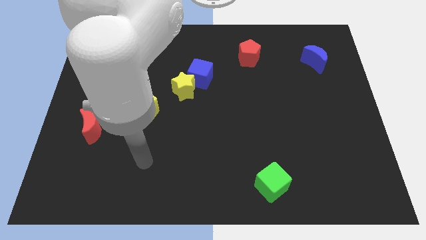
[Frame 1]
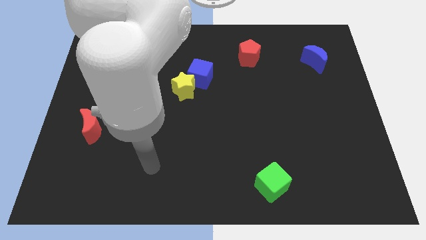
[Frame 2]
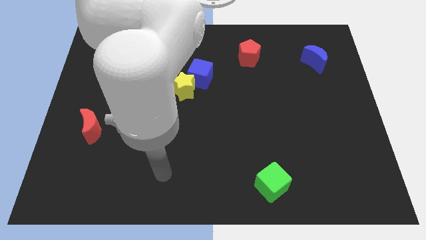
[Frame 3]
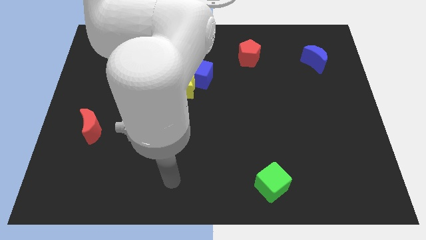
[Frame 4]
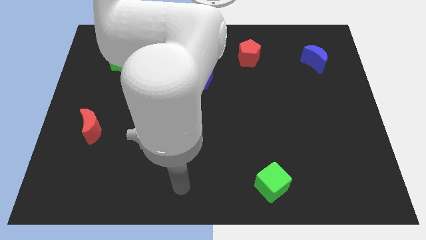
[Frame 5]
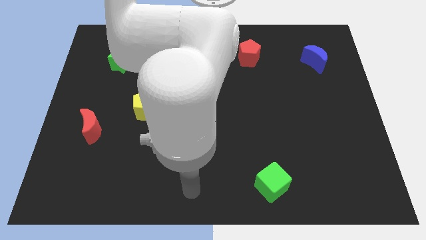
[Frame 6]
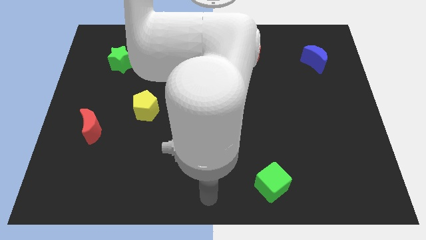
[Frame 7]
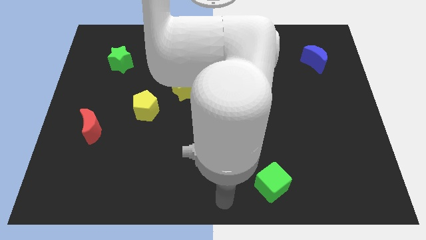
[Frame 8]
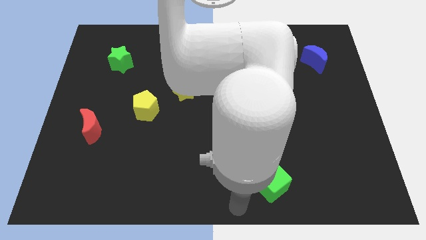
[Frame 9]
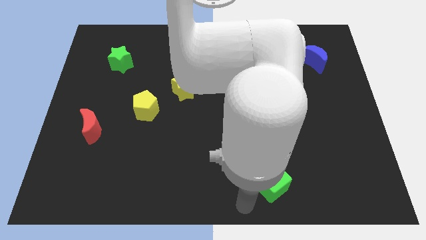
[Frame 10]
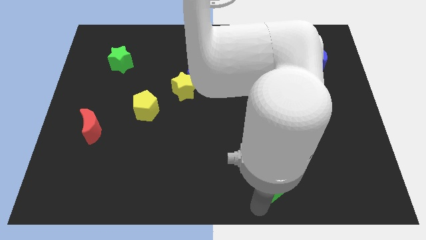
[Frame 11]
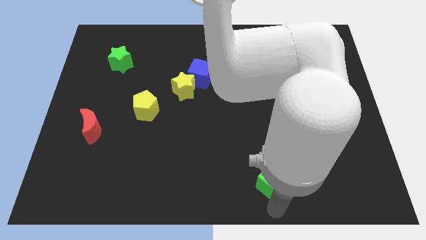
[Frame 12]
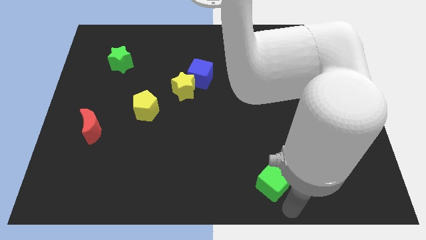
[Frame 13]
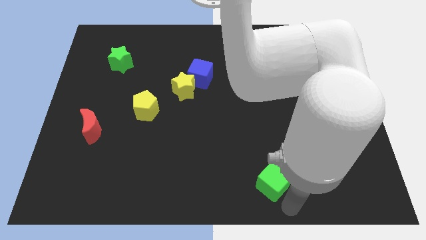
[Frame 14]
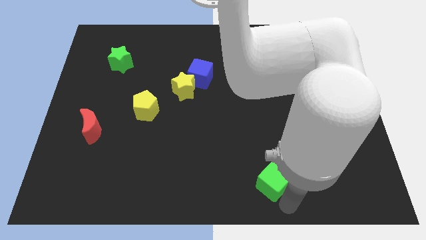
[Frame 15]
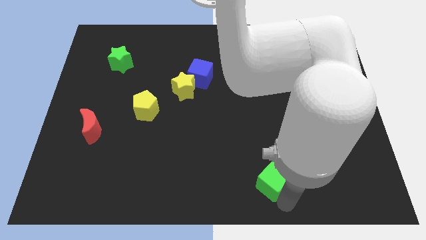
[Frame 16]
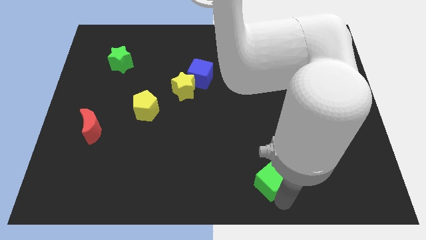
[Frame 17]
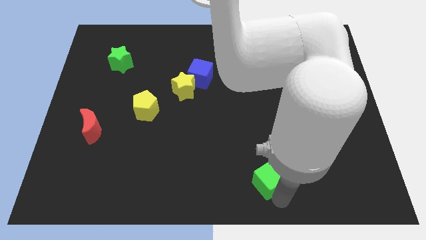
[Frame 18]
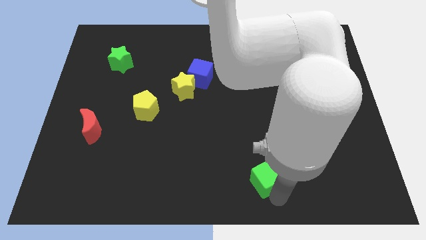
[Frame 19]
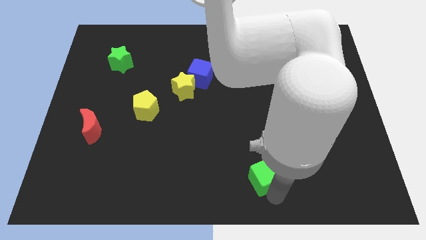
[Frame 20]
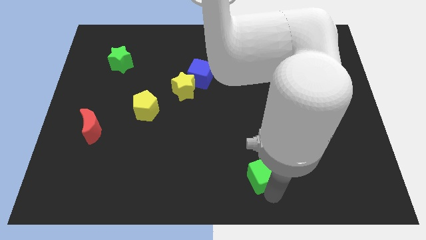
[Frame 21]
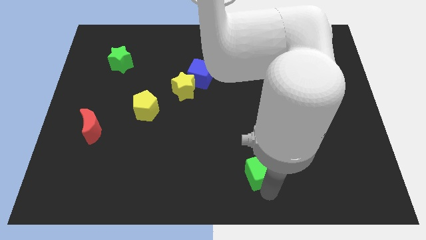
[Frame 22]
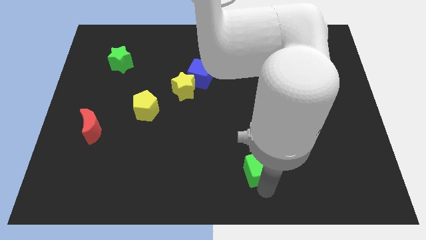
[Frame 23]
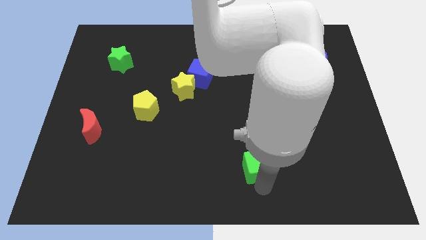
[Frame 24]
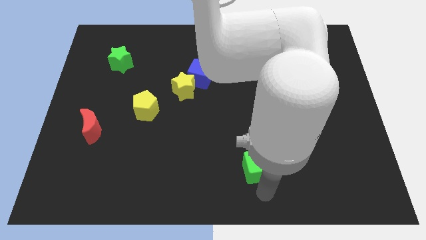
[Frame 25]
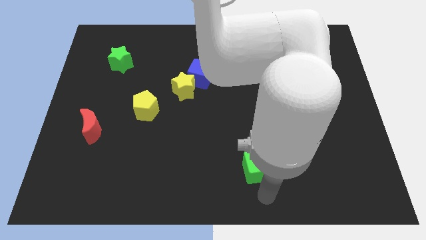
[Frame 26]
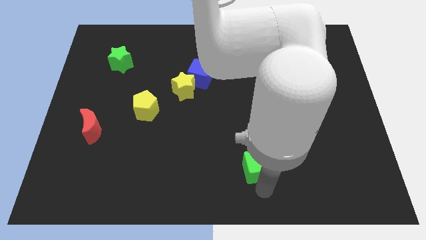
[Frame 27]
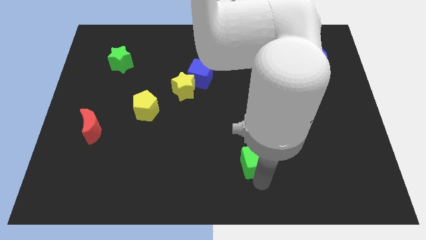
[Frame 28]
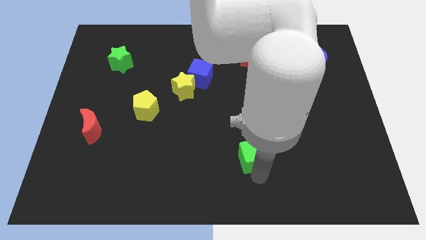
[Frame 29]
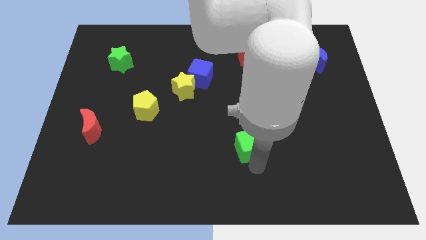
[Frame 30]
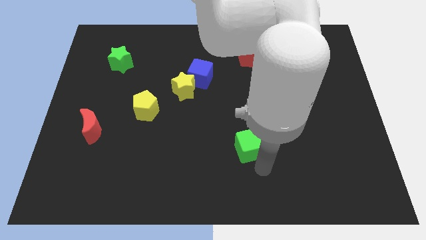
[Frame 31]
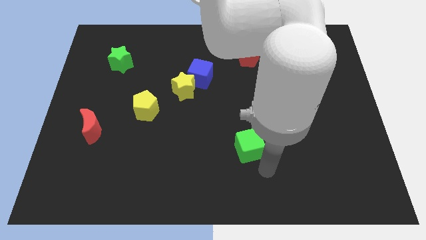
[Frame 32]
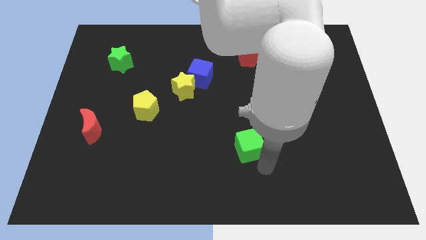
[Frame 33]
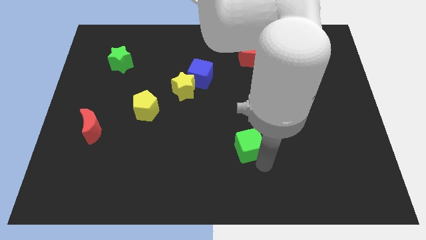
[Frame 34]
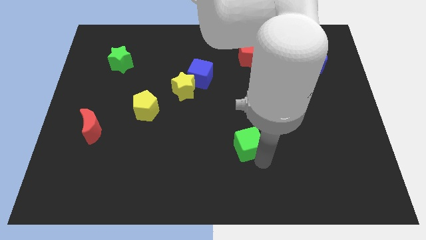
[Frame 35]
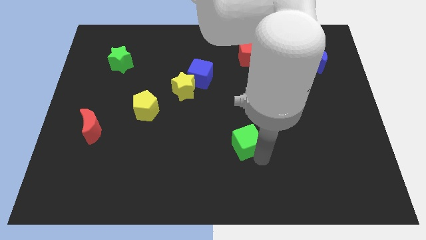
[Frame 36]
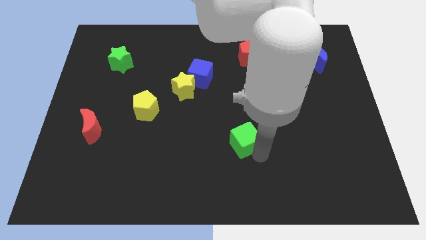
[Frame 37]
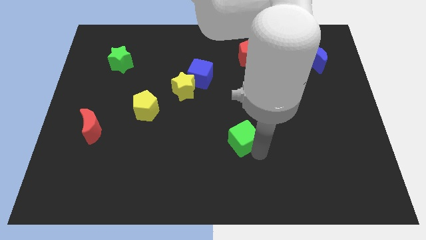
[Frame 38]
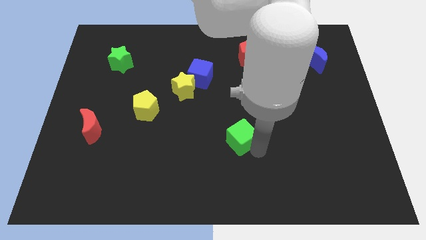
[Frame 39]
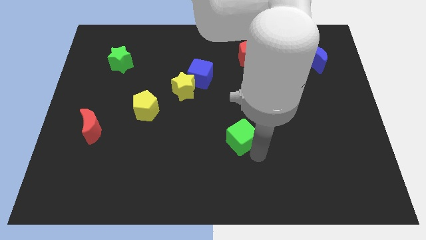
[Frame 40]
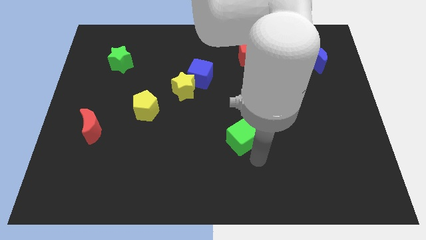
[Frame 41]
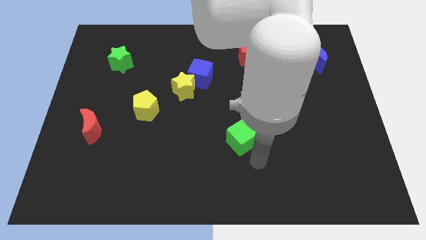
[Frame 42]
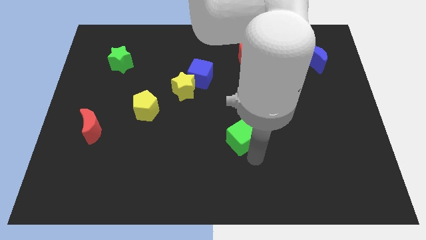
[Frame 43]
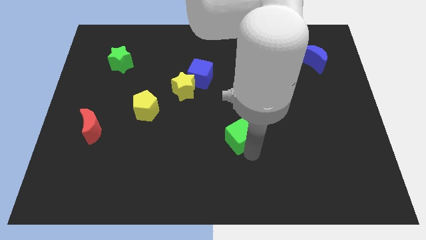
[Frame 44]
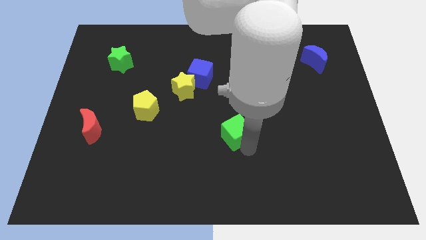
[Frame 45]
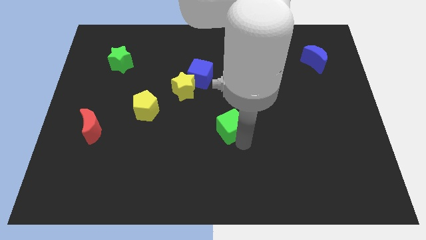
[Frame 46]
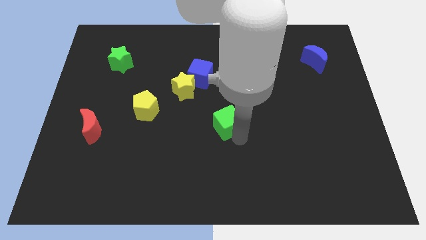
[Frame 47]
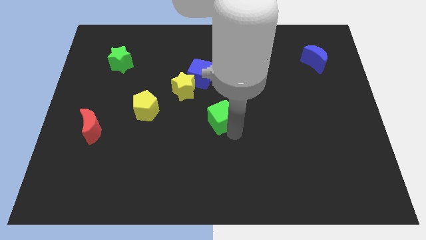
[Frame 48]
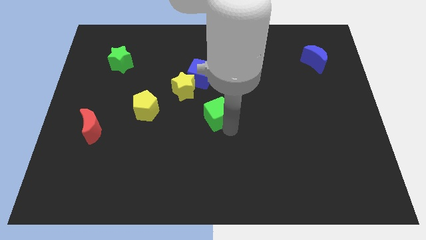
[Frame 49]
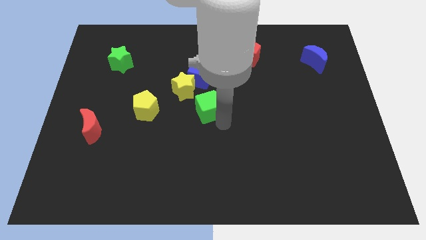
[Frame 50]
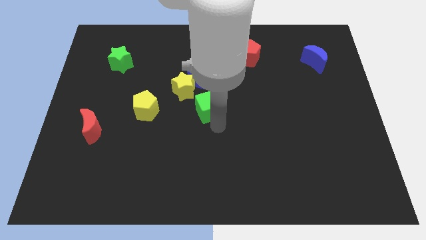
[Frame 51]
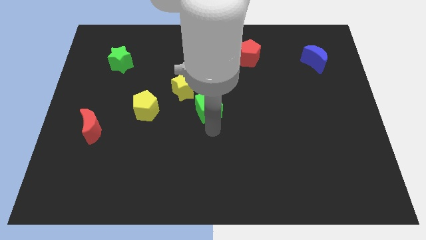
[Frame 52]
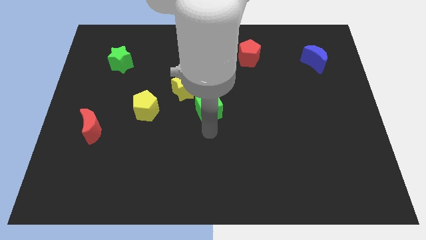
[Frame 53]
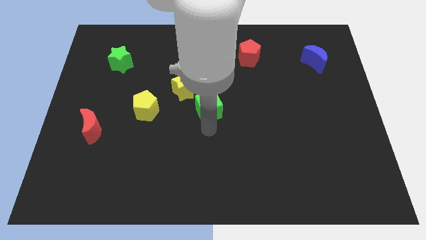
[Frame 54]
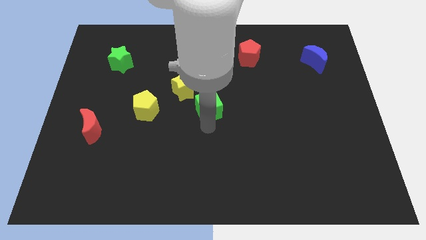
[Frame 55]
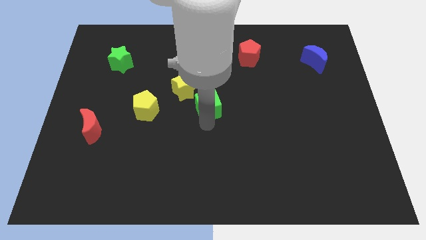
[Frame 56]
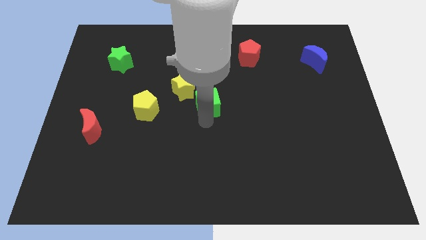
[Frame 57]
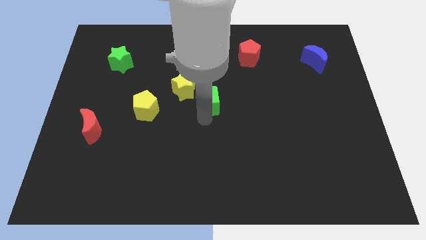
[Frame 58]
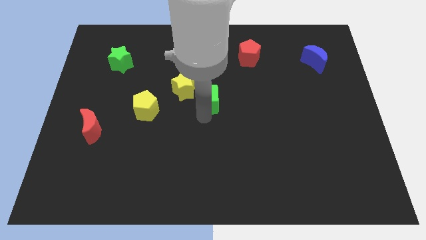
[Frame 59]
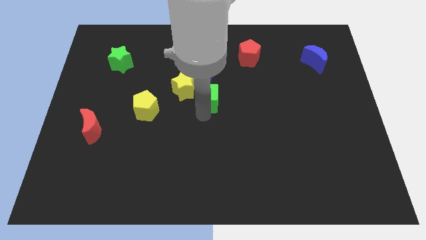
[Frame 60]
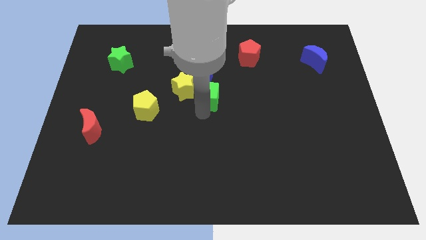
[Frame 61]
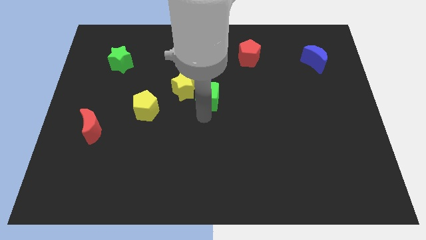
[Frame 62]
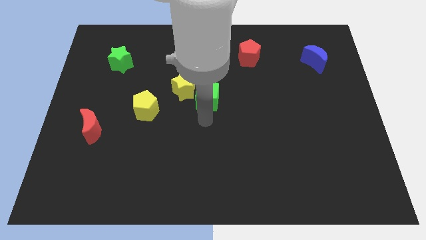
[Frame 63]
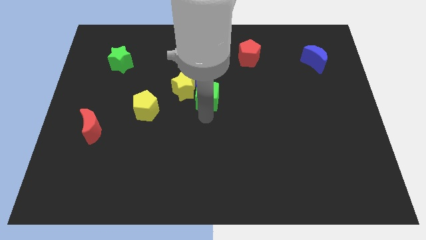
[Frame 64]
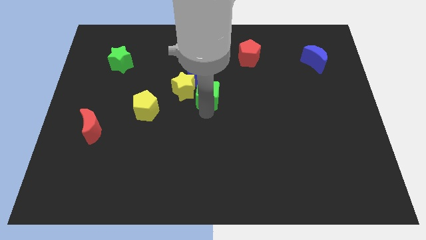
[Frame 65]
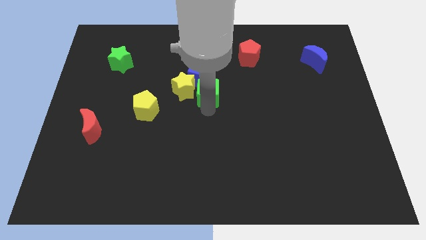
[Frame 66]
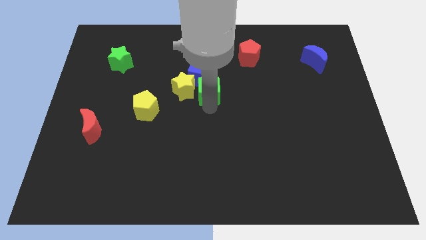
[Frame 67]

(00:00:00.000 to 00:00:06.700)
put the green cube to the blue cube

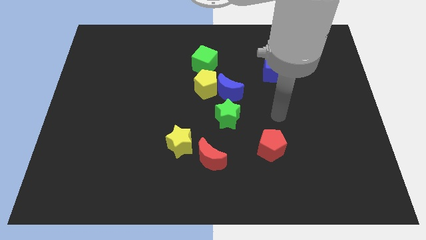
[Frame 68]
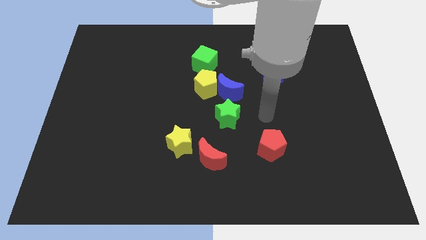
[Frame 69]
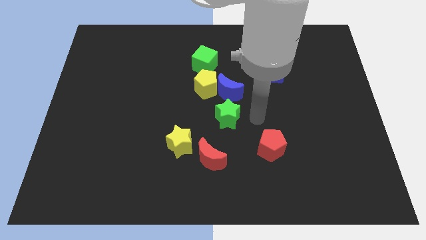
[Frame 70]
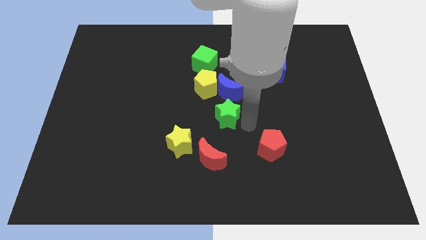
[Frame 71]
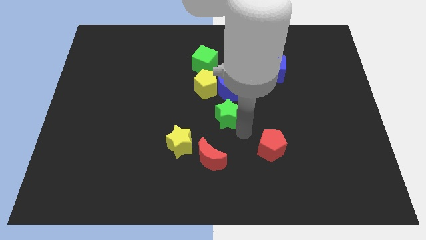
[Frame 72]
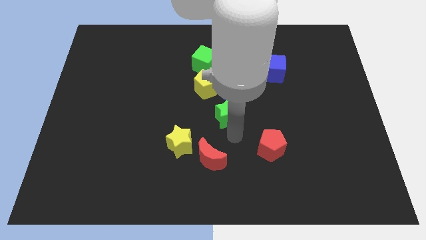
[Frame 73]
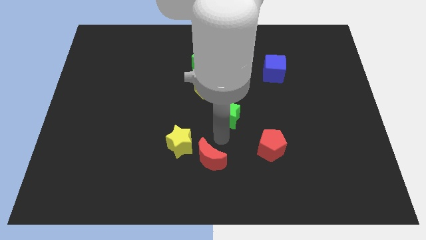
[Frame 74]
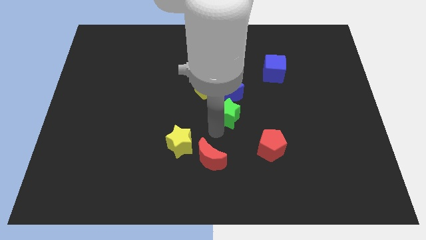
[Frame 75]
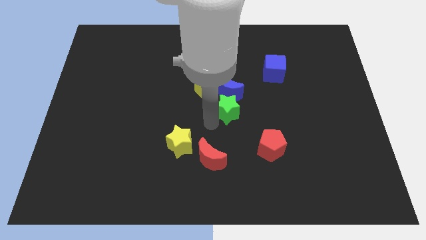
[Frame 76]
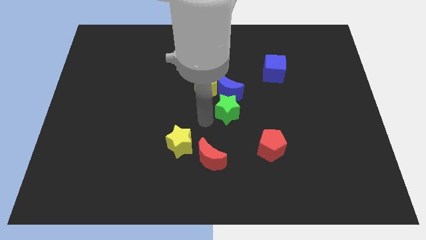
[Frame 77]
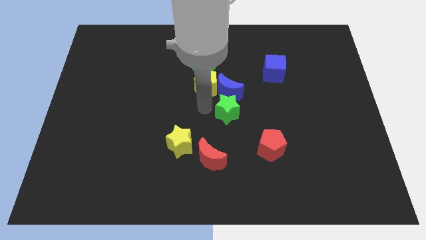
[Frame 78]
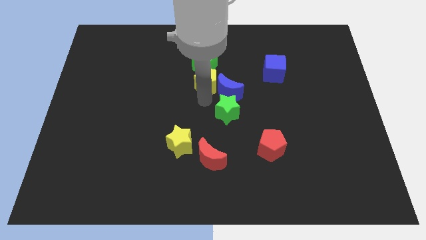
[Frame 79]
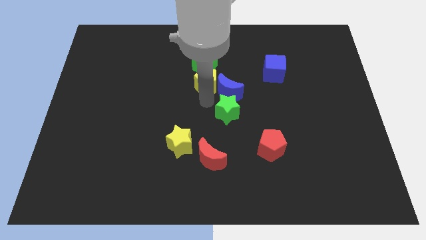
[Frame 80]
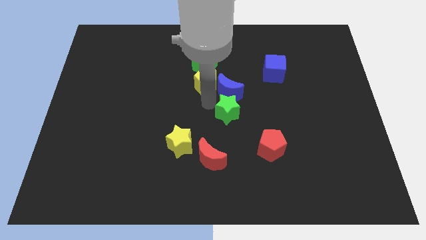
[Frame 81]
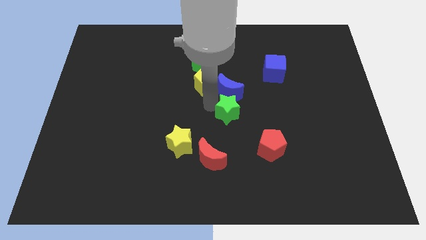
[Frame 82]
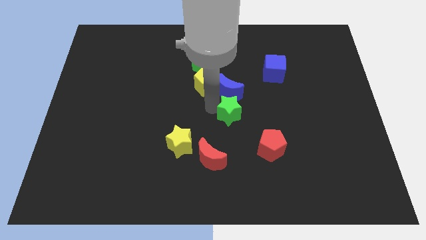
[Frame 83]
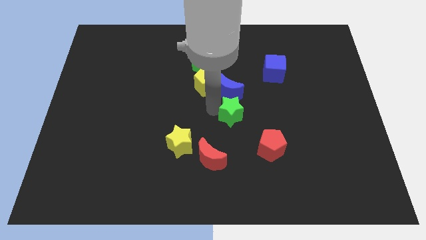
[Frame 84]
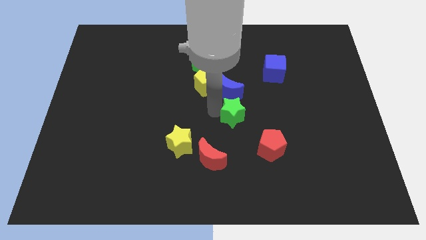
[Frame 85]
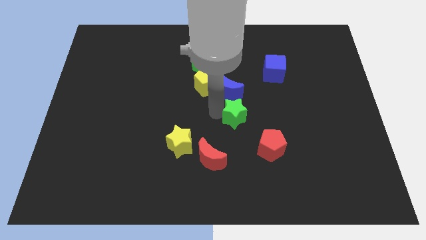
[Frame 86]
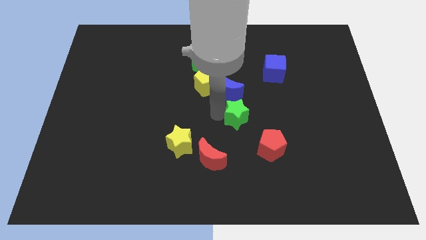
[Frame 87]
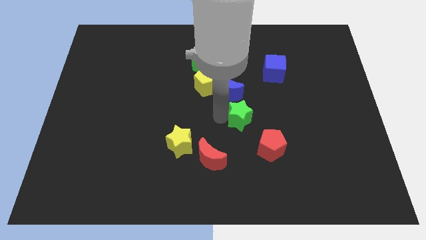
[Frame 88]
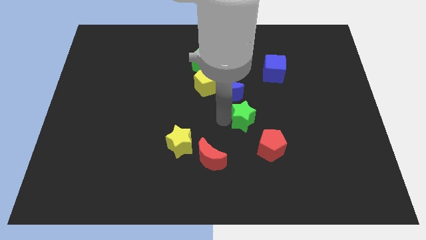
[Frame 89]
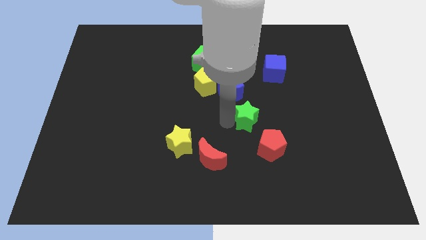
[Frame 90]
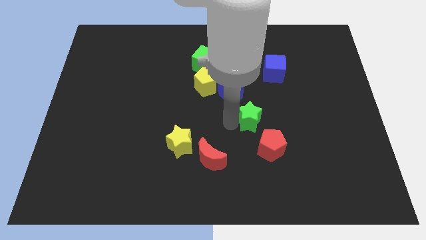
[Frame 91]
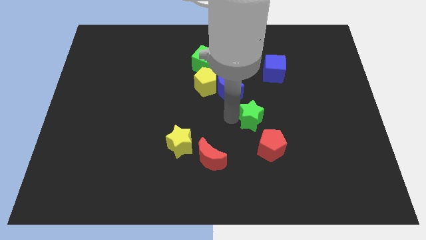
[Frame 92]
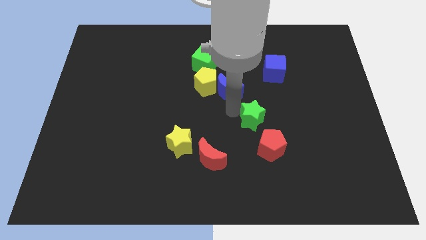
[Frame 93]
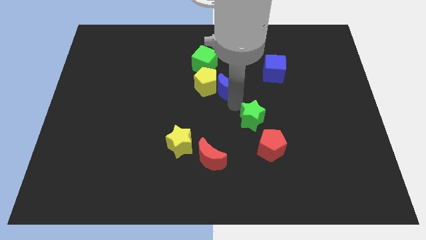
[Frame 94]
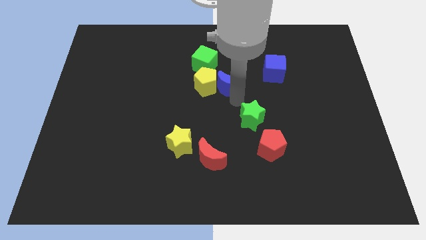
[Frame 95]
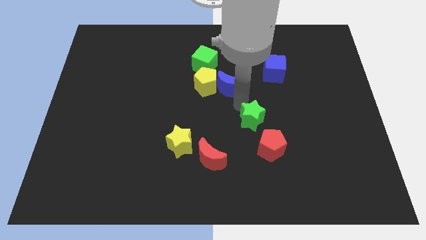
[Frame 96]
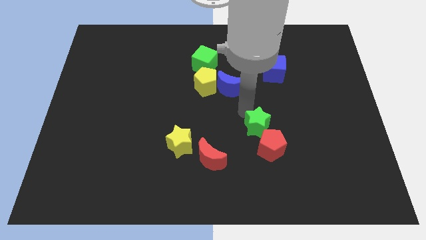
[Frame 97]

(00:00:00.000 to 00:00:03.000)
slide the green star next to the red pentagon
